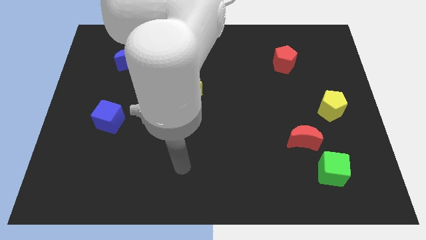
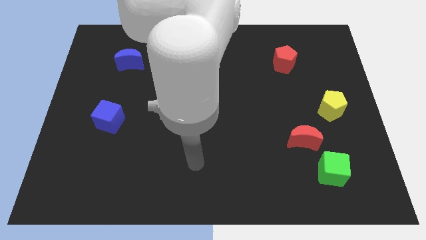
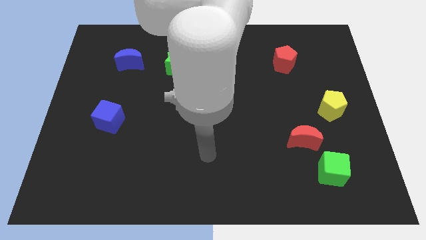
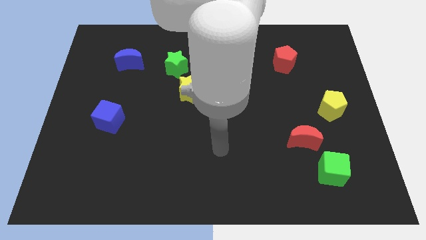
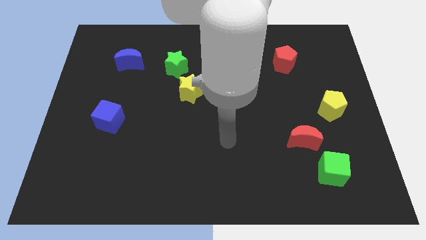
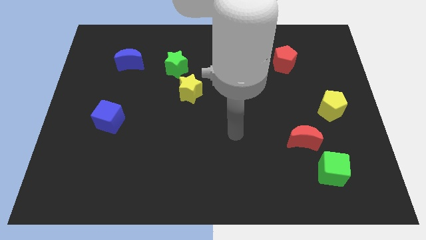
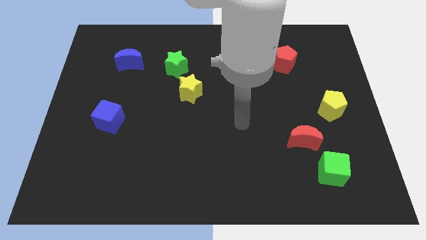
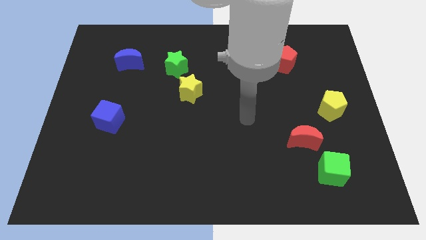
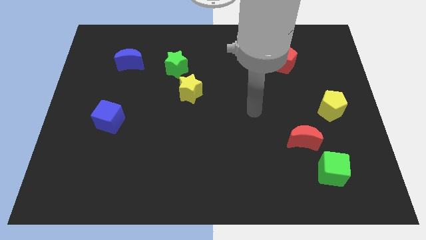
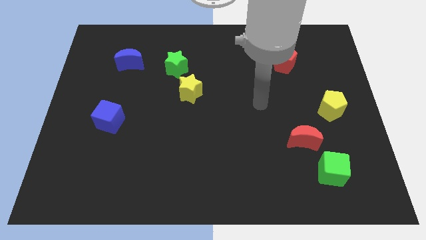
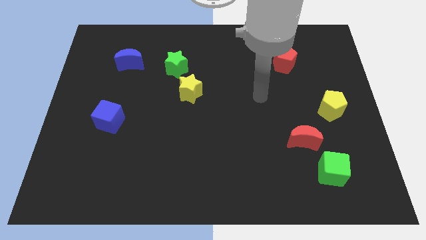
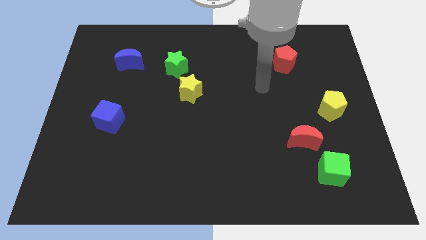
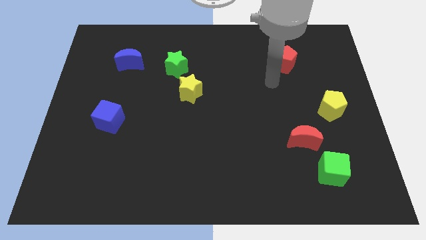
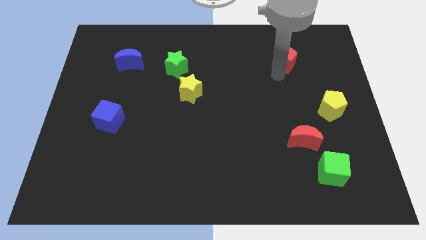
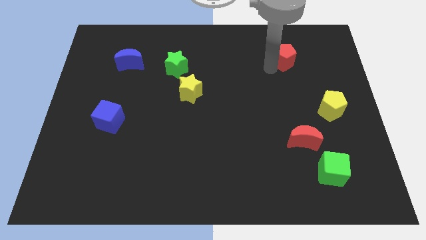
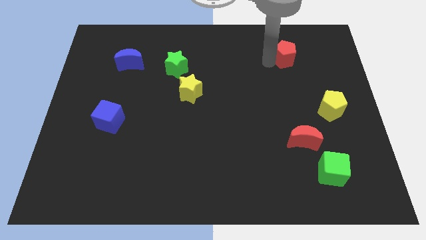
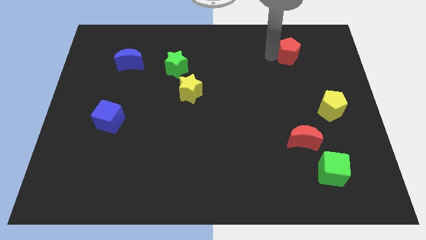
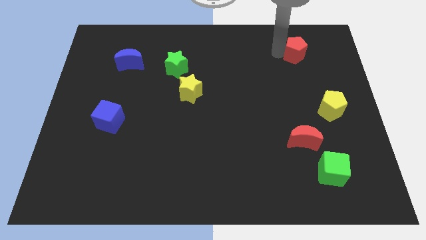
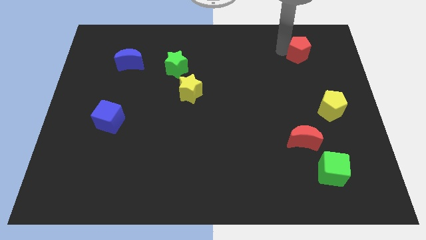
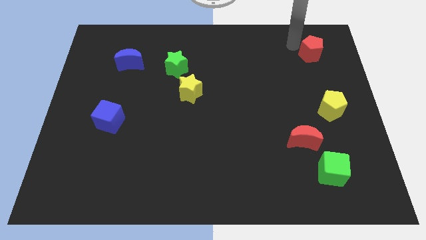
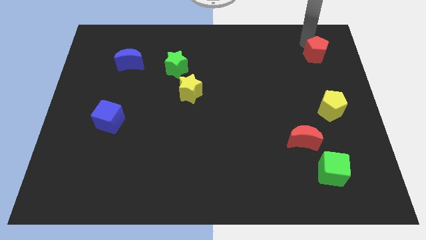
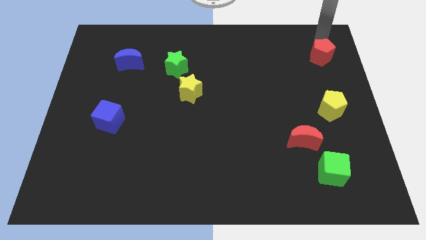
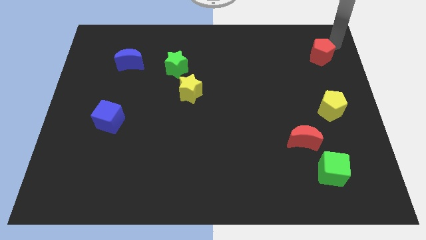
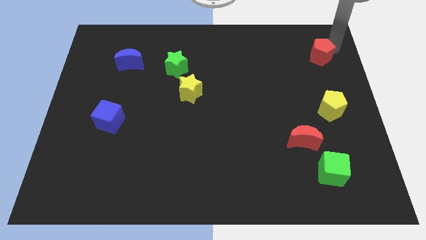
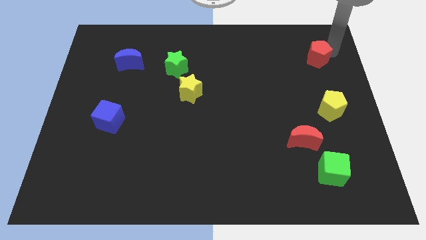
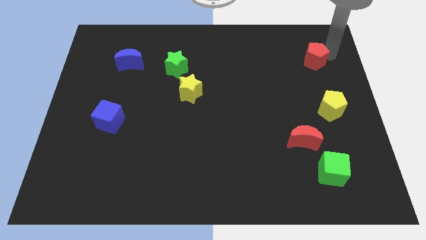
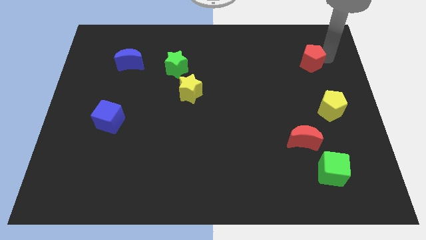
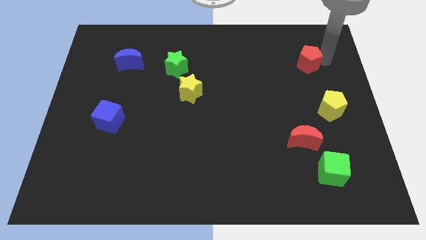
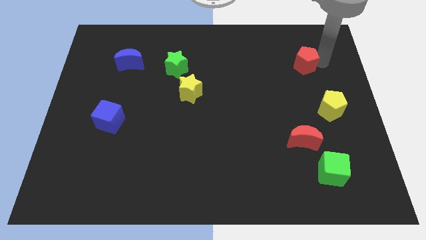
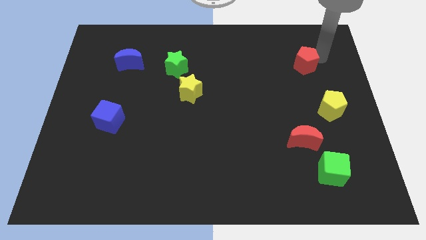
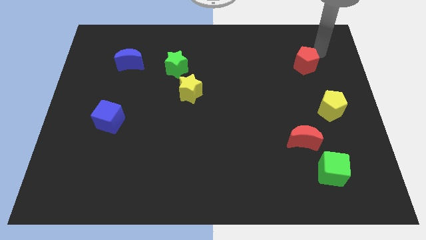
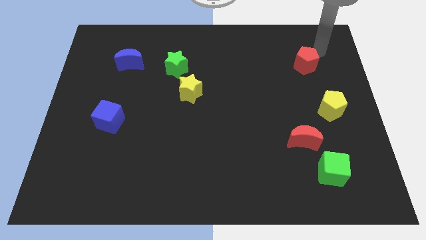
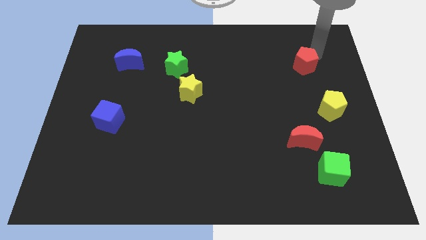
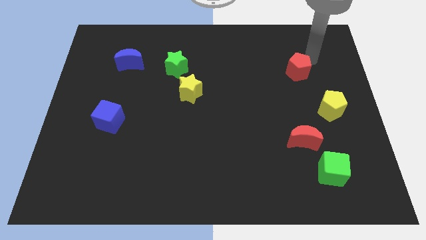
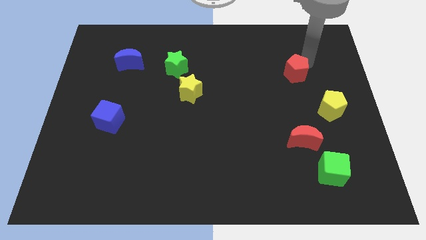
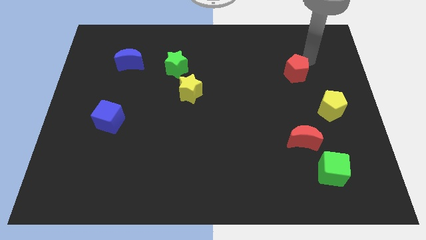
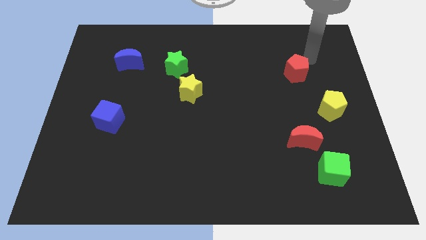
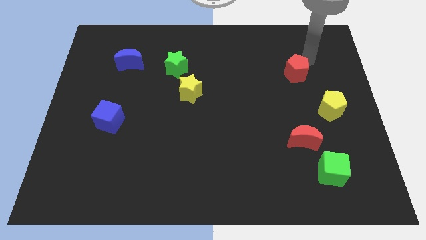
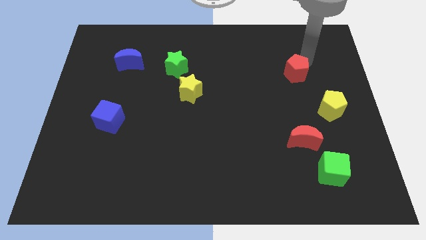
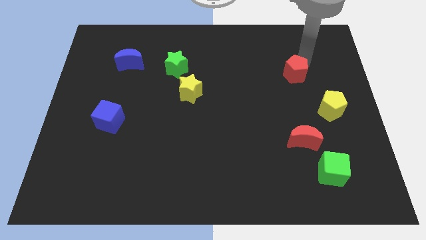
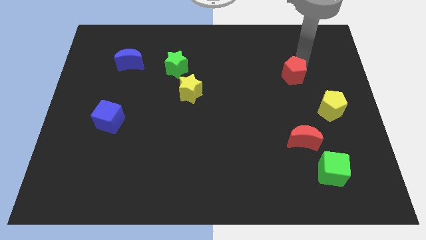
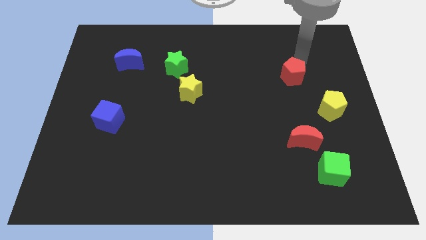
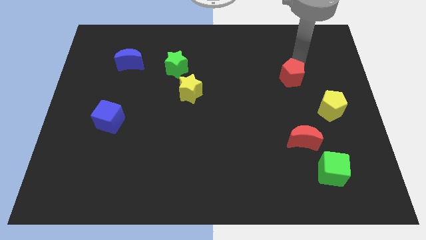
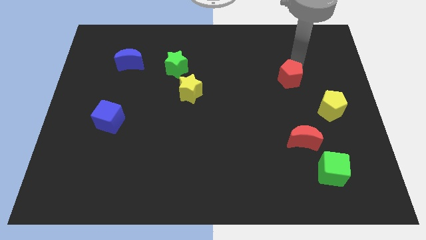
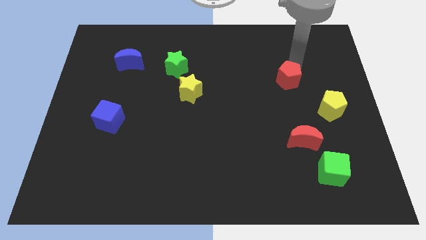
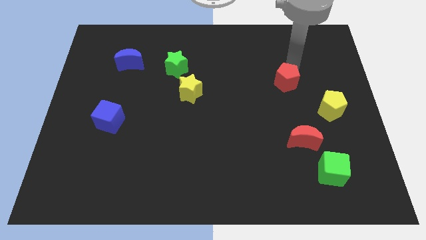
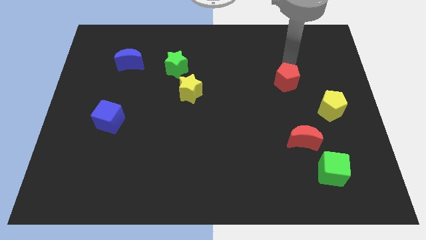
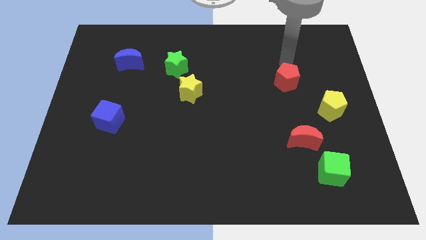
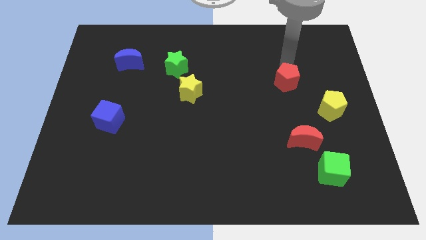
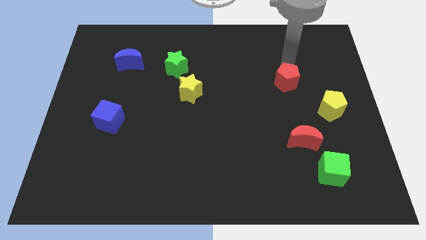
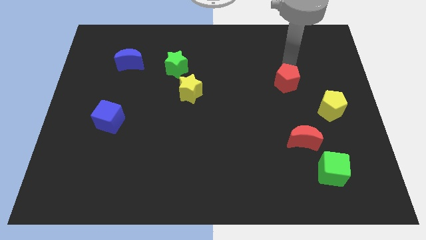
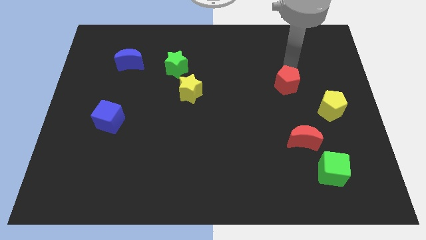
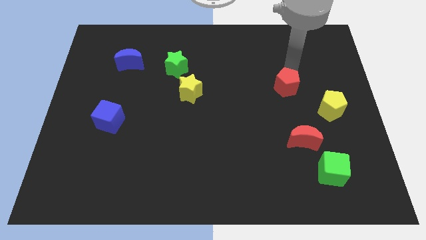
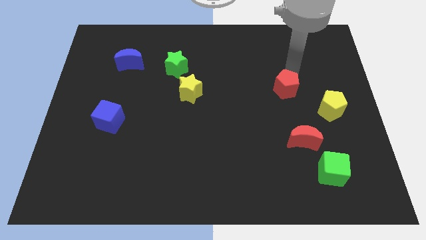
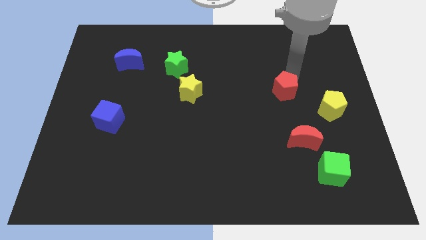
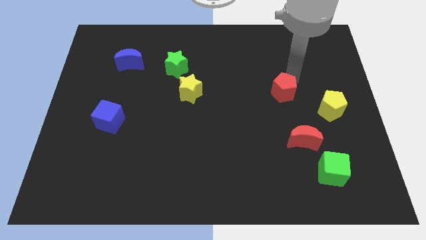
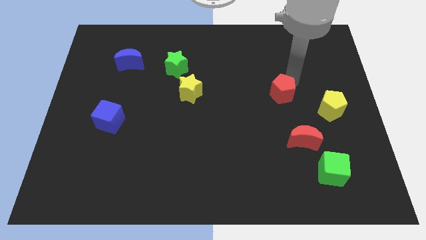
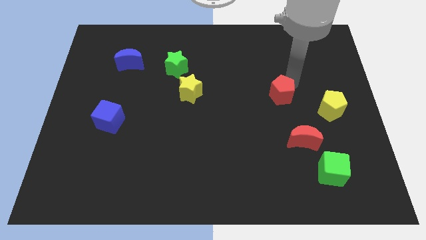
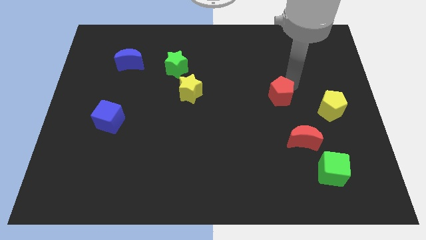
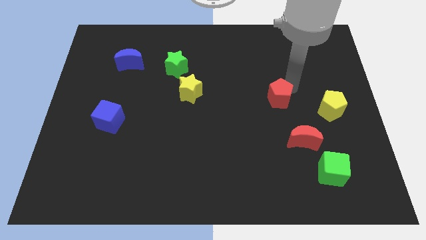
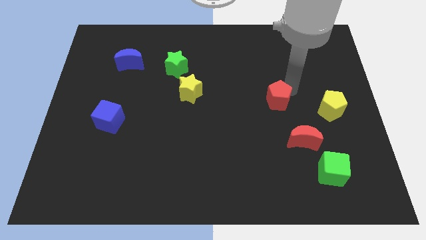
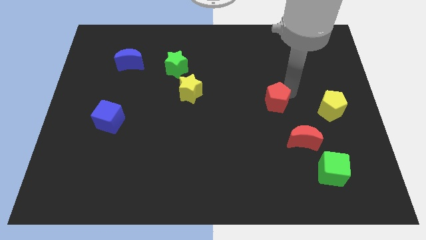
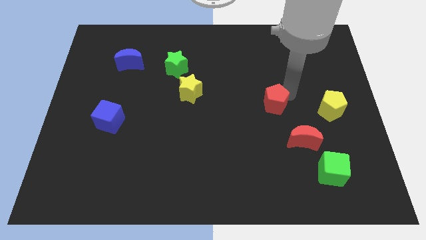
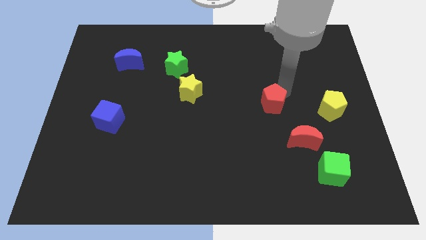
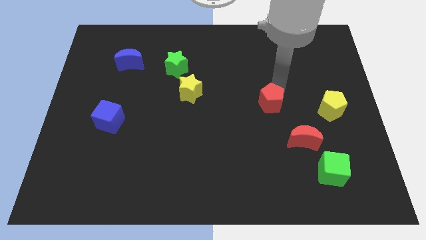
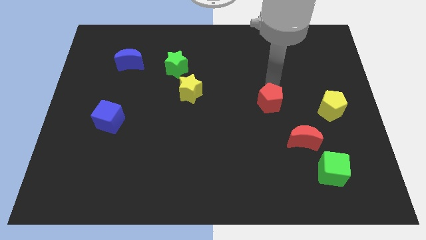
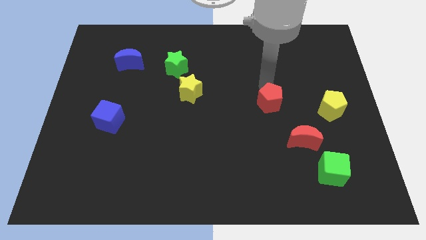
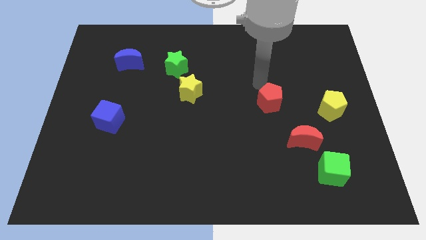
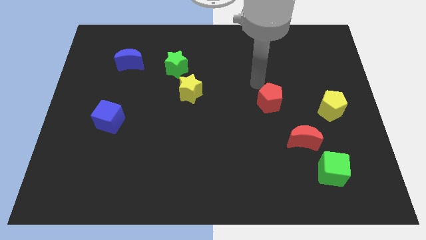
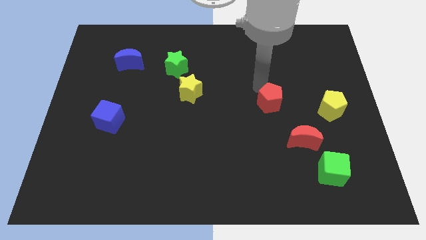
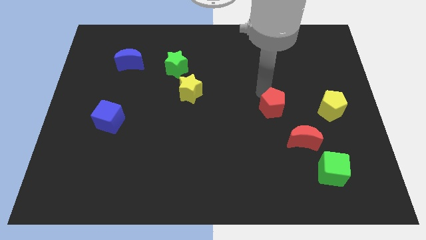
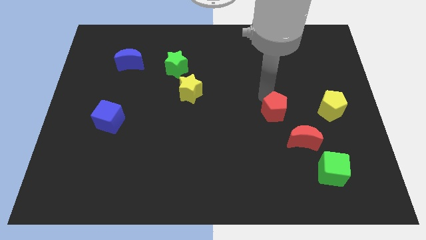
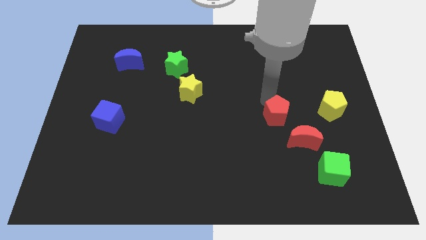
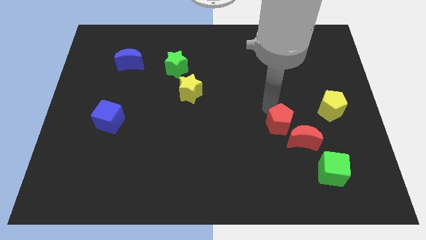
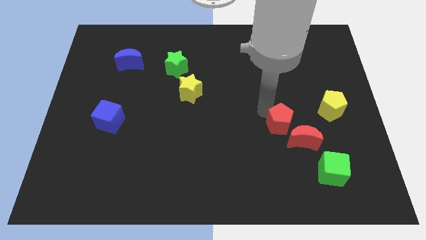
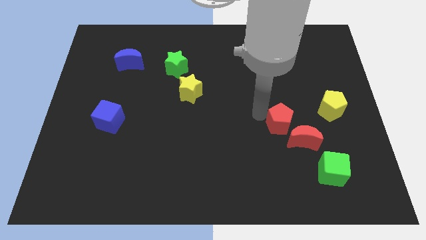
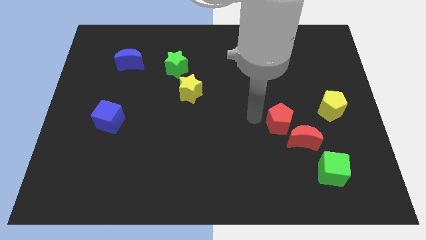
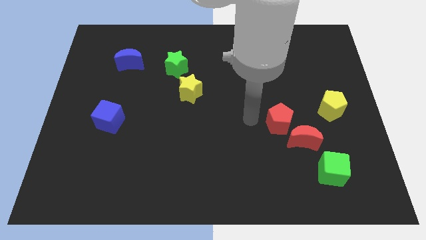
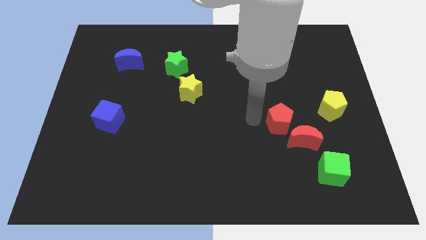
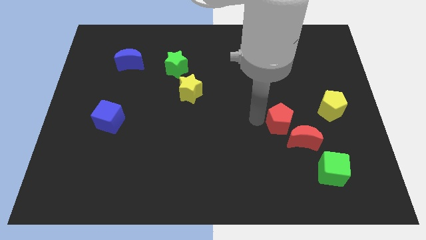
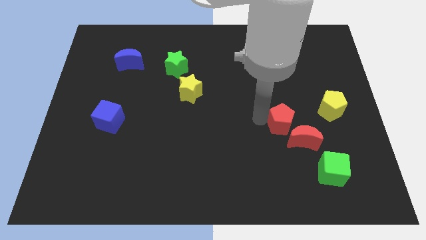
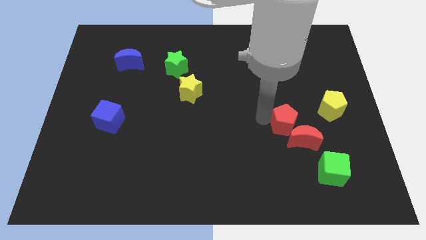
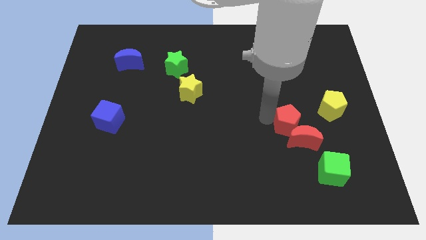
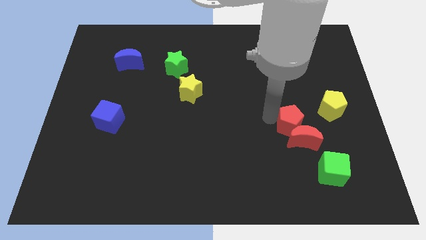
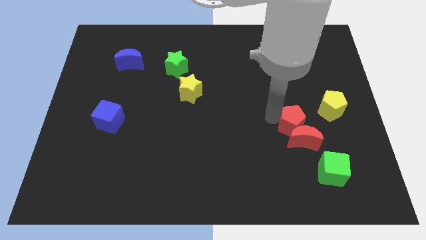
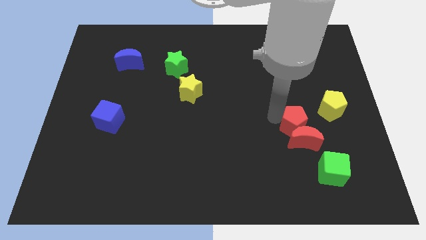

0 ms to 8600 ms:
push the red pentagon to the top right of the red moon
